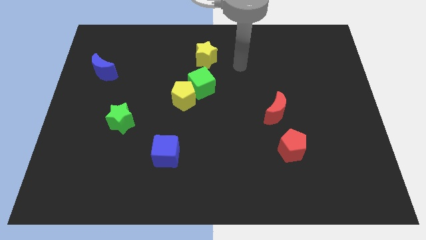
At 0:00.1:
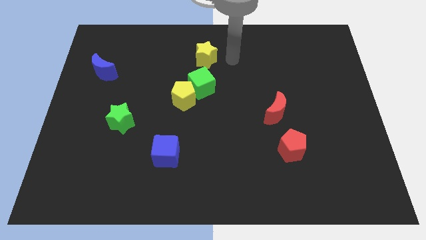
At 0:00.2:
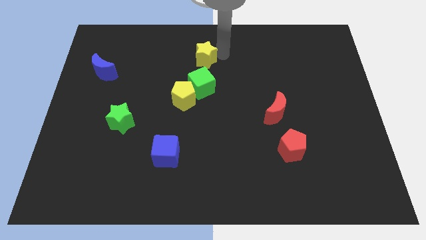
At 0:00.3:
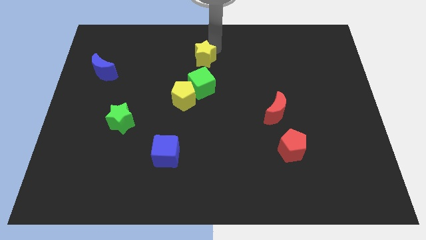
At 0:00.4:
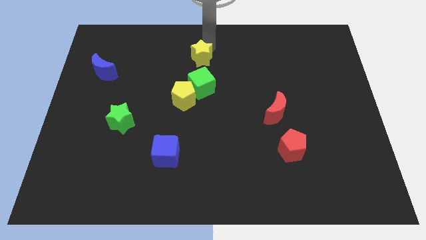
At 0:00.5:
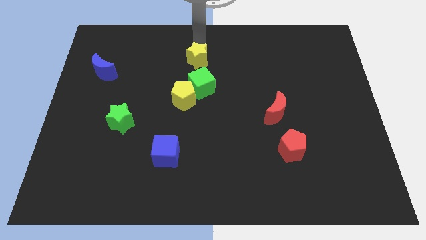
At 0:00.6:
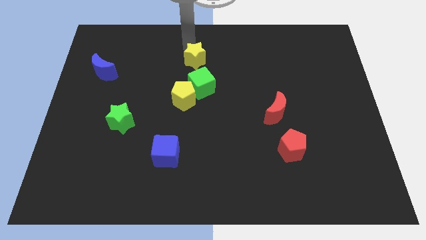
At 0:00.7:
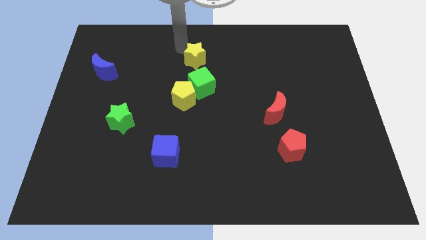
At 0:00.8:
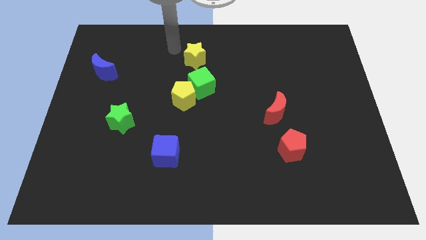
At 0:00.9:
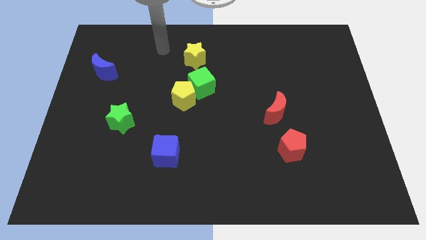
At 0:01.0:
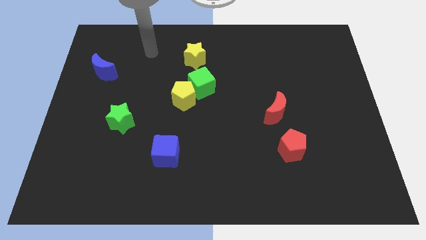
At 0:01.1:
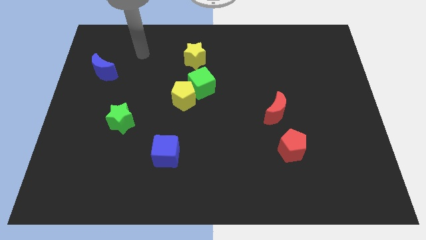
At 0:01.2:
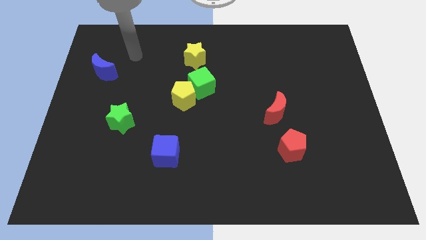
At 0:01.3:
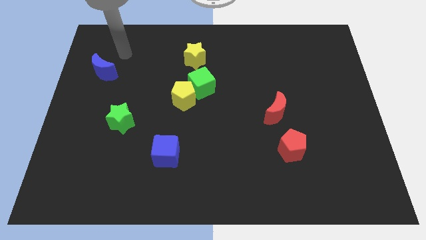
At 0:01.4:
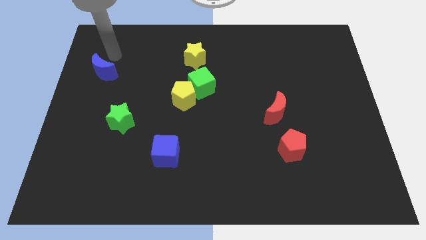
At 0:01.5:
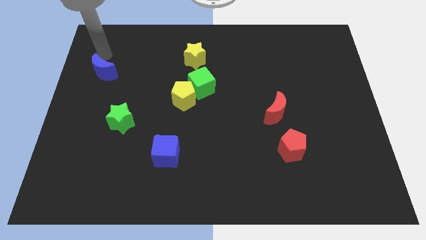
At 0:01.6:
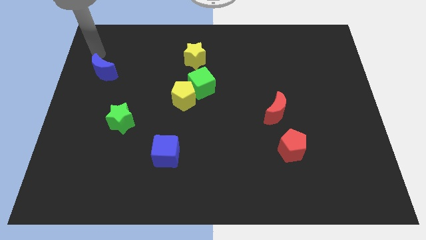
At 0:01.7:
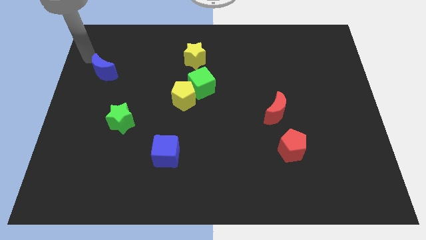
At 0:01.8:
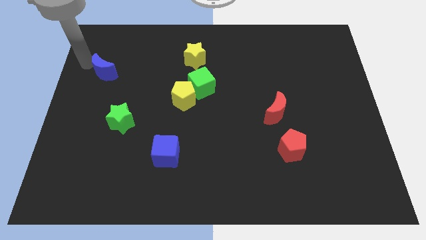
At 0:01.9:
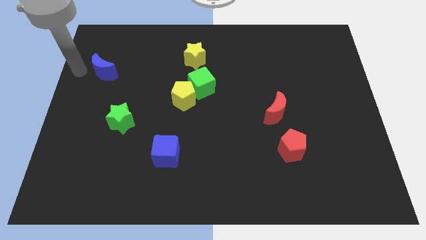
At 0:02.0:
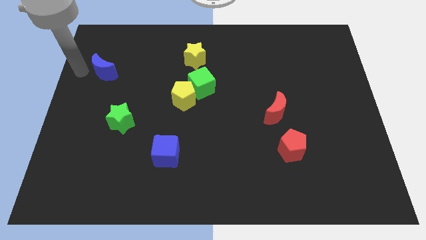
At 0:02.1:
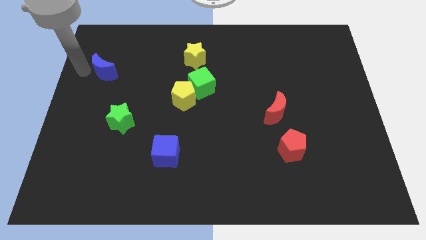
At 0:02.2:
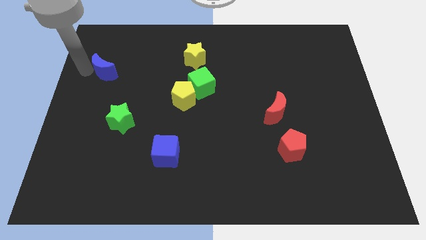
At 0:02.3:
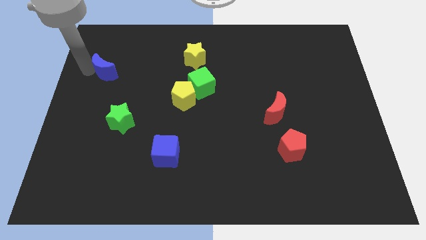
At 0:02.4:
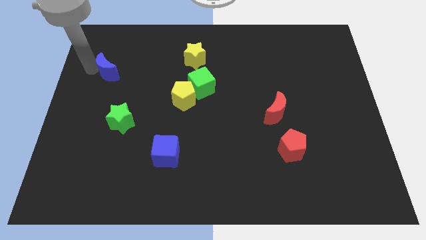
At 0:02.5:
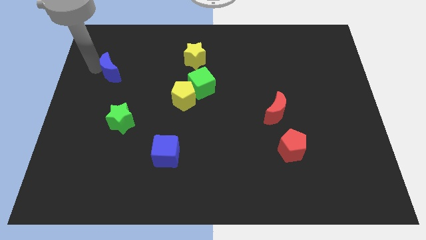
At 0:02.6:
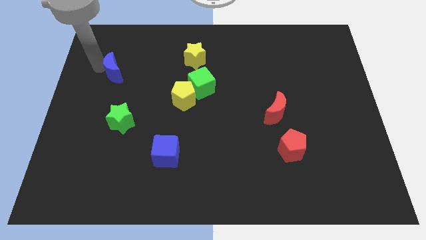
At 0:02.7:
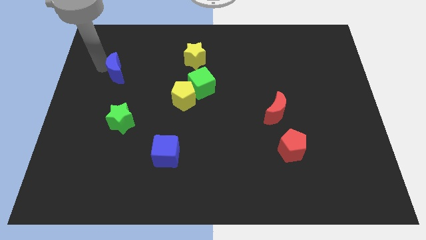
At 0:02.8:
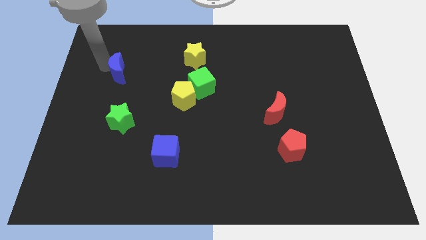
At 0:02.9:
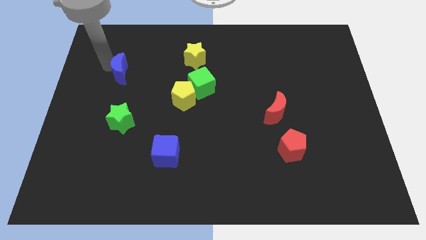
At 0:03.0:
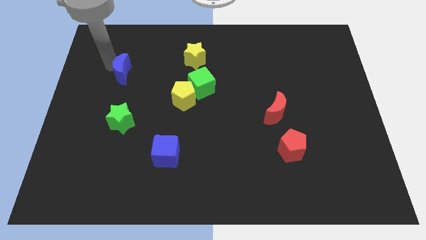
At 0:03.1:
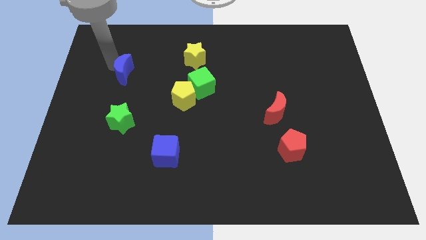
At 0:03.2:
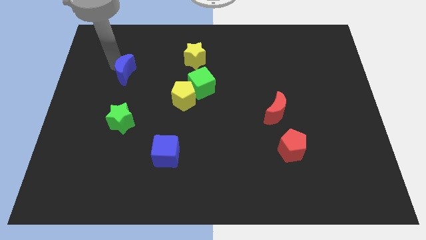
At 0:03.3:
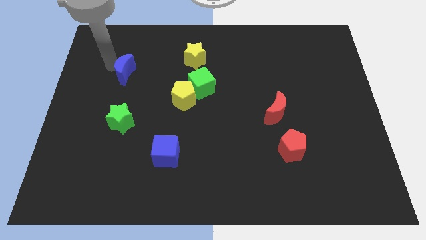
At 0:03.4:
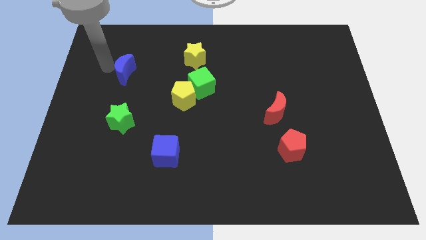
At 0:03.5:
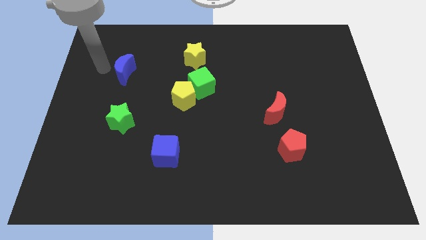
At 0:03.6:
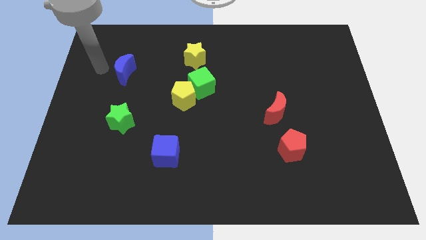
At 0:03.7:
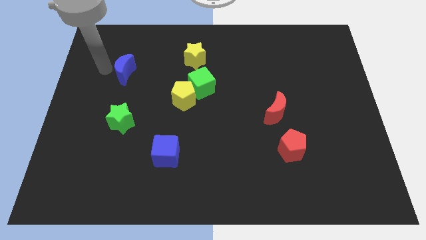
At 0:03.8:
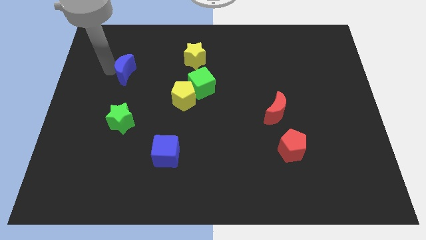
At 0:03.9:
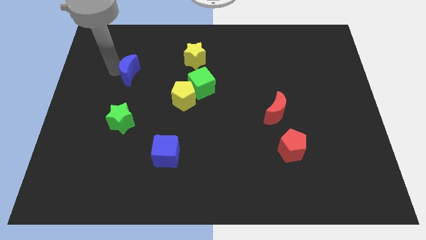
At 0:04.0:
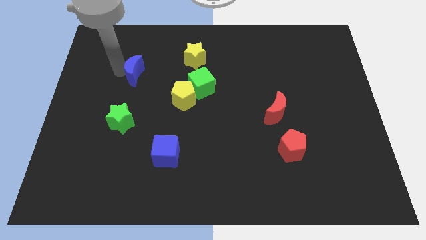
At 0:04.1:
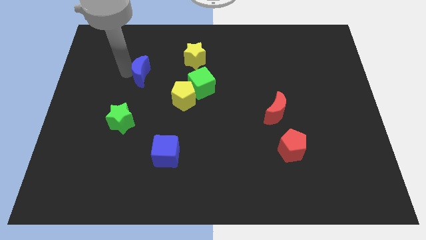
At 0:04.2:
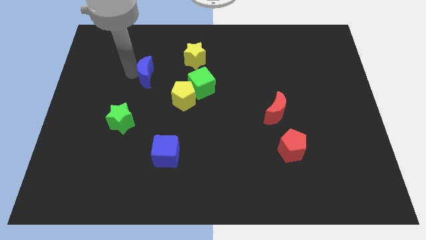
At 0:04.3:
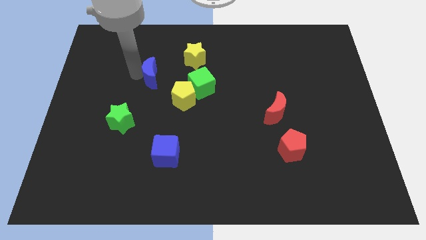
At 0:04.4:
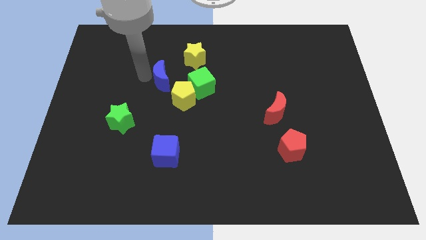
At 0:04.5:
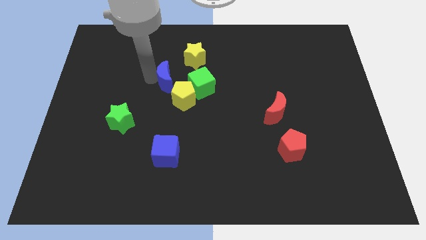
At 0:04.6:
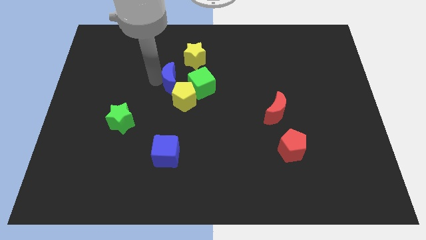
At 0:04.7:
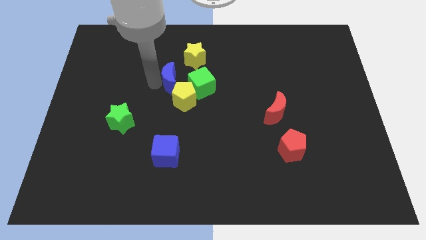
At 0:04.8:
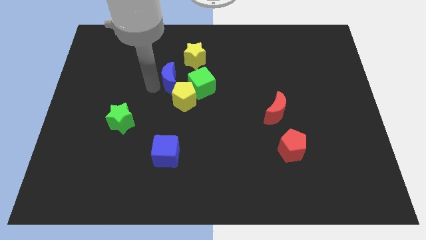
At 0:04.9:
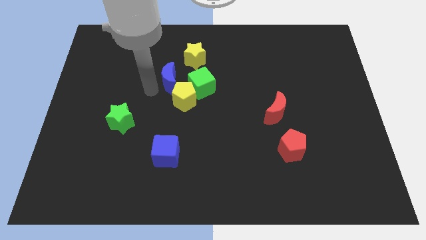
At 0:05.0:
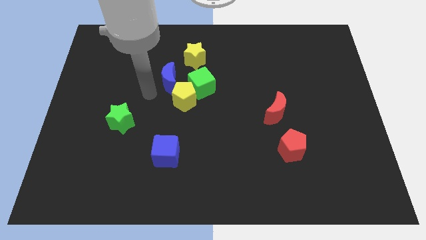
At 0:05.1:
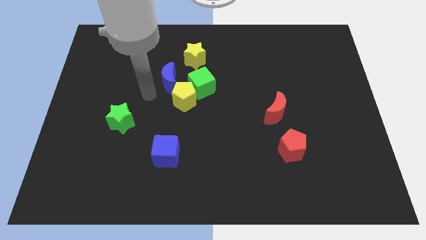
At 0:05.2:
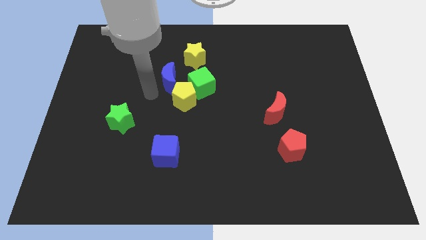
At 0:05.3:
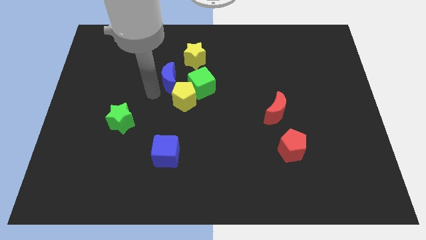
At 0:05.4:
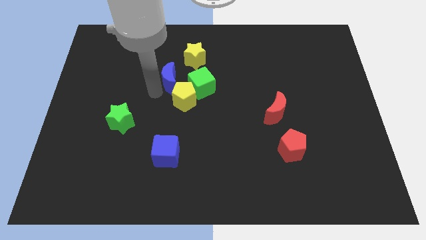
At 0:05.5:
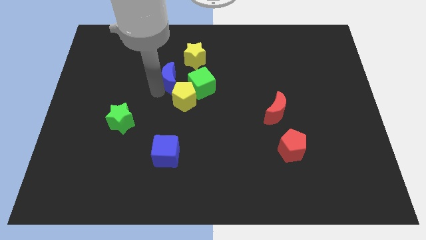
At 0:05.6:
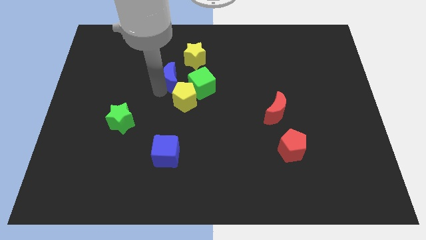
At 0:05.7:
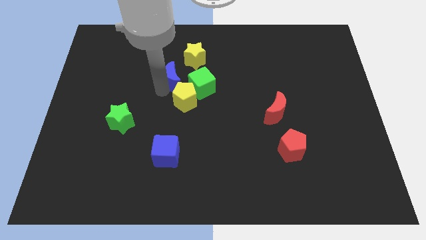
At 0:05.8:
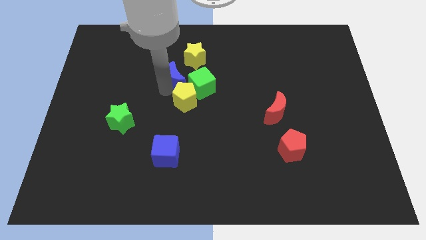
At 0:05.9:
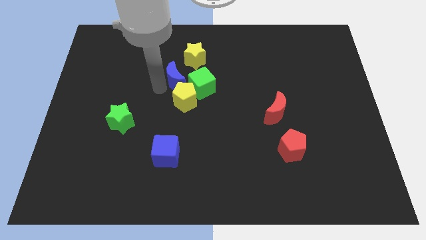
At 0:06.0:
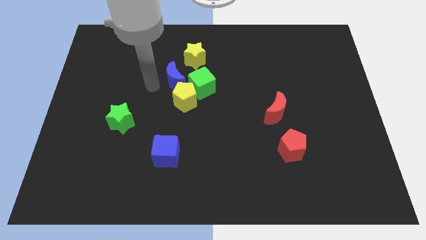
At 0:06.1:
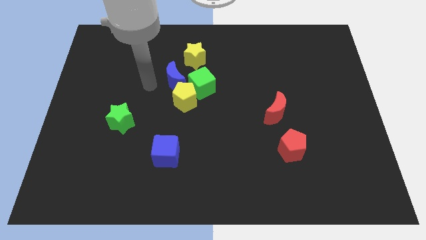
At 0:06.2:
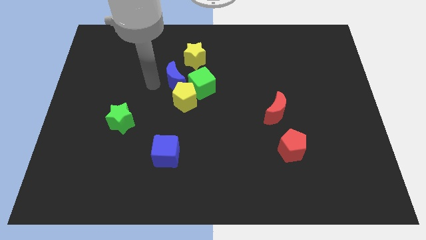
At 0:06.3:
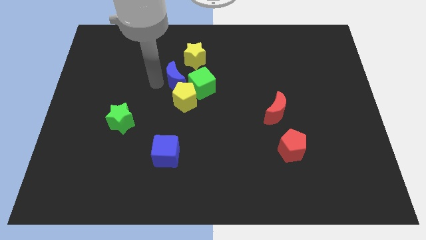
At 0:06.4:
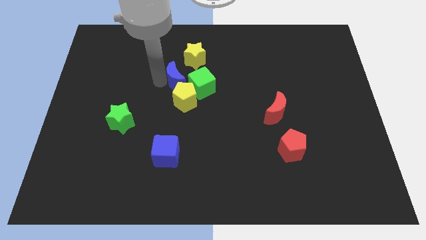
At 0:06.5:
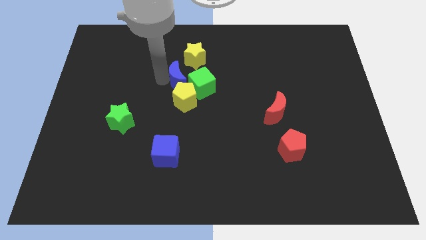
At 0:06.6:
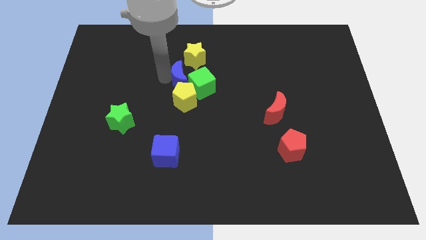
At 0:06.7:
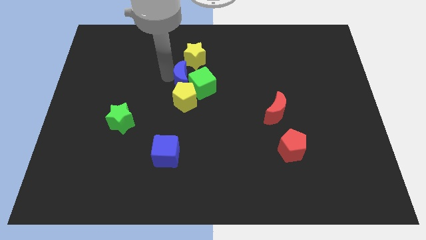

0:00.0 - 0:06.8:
slide the blue moon to the right

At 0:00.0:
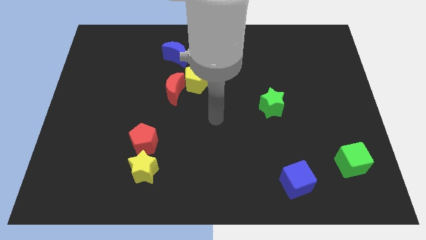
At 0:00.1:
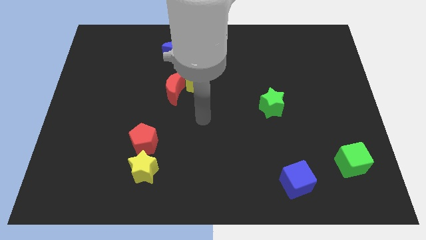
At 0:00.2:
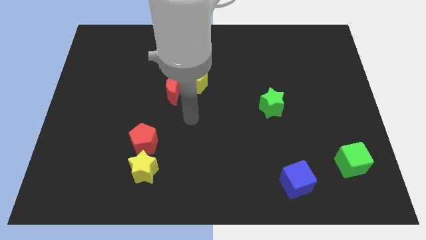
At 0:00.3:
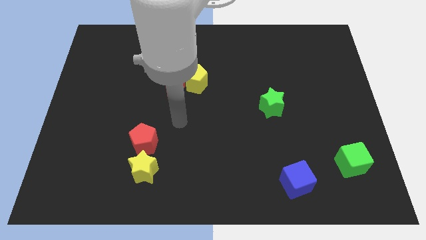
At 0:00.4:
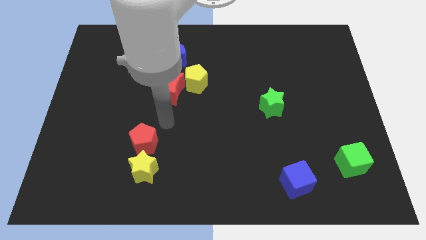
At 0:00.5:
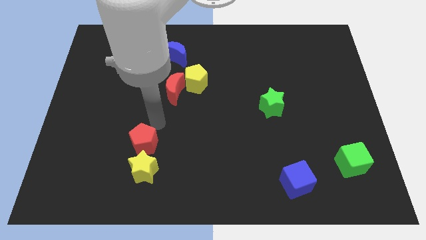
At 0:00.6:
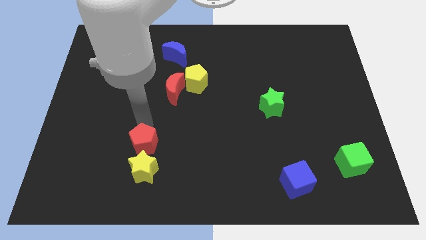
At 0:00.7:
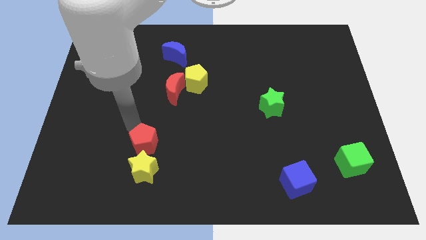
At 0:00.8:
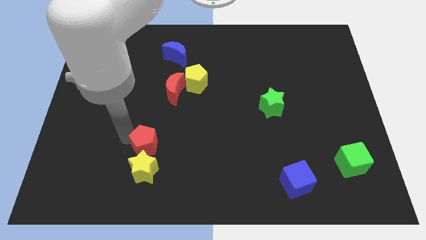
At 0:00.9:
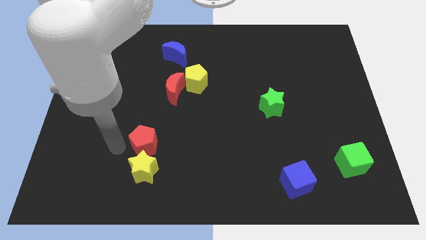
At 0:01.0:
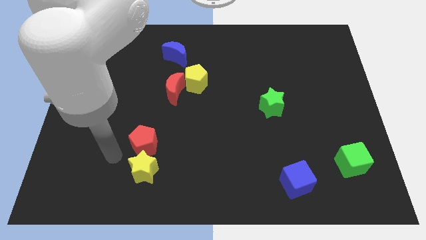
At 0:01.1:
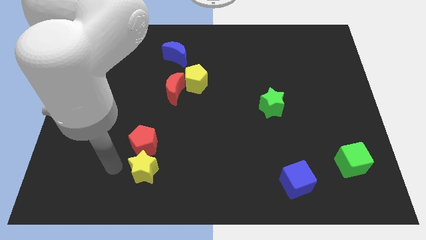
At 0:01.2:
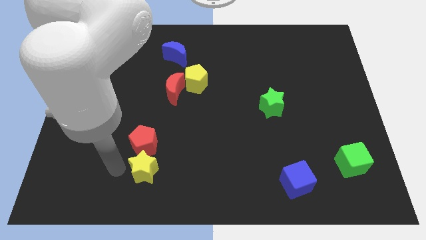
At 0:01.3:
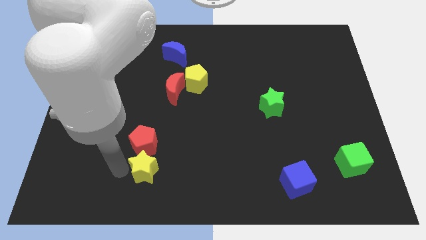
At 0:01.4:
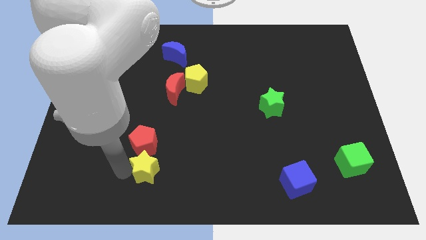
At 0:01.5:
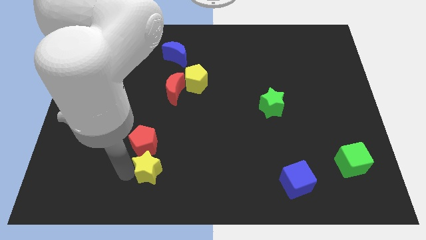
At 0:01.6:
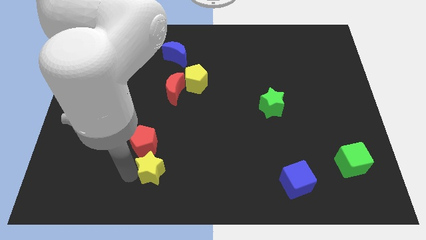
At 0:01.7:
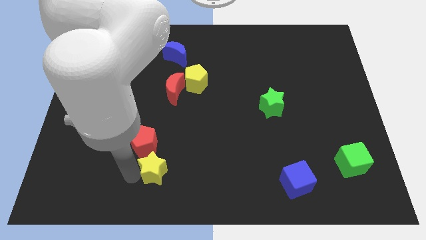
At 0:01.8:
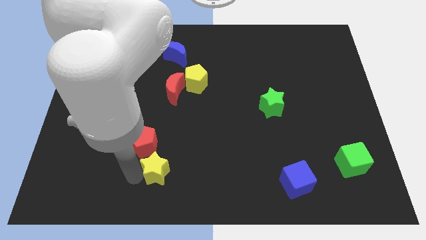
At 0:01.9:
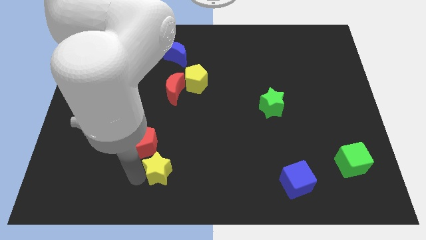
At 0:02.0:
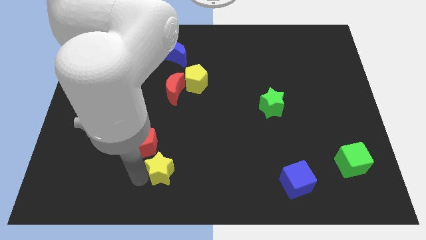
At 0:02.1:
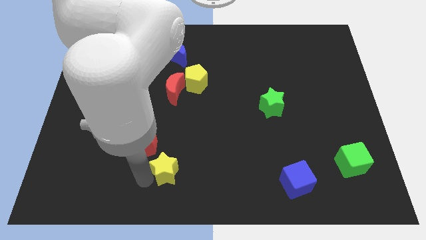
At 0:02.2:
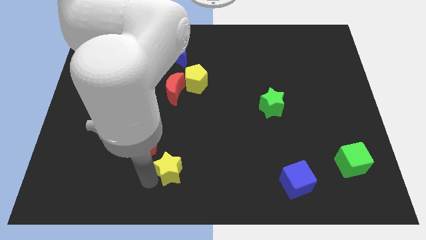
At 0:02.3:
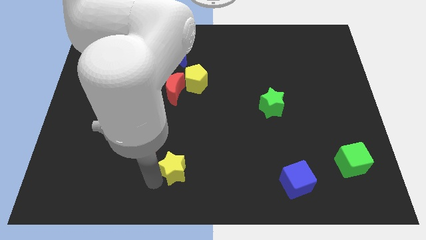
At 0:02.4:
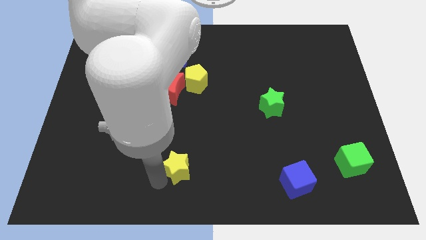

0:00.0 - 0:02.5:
slightly slide the yellow star right
